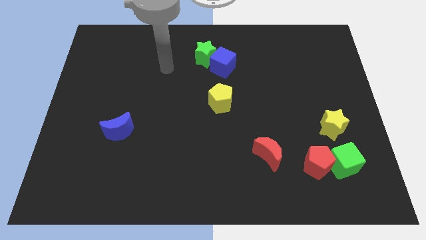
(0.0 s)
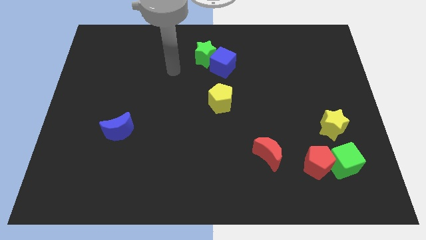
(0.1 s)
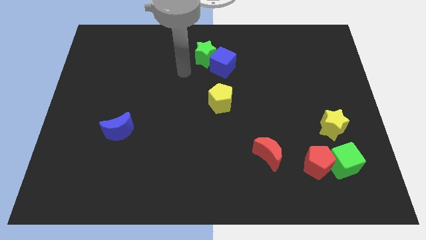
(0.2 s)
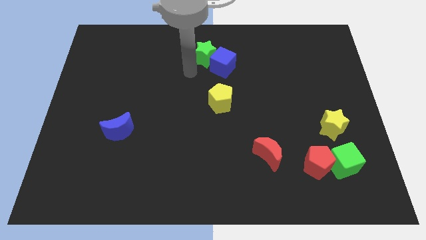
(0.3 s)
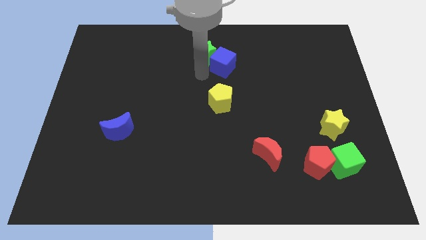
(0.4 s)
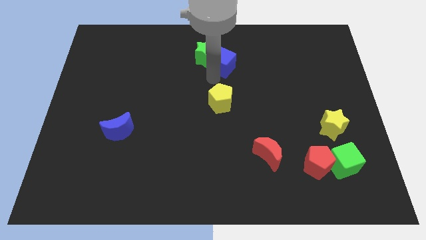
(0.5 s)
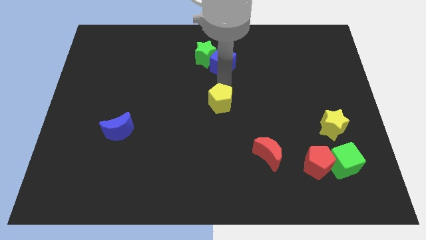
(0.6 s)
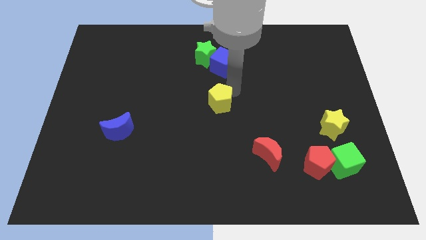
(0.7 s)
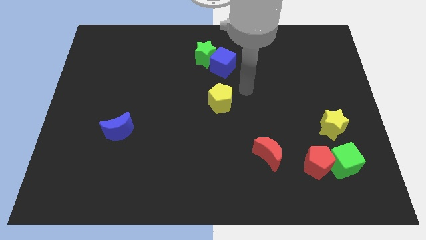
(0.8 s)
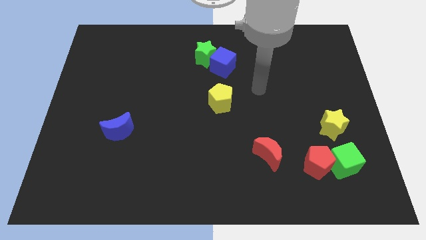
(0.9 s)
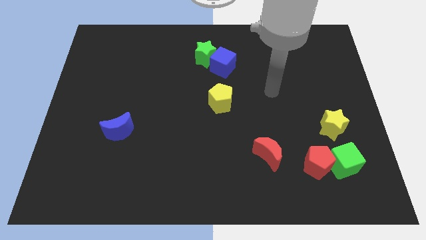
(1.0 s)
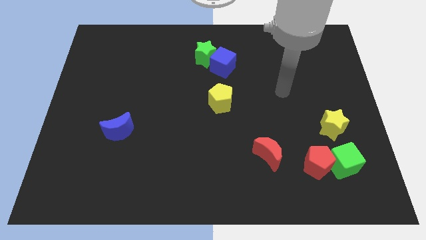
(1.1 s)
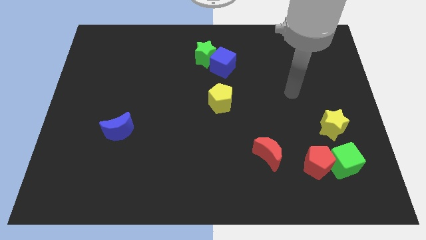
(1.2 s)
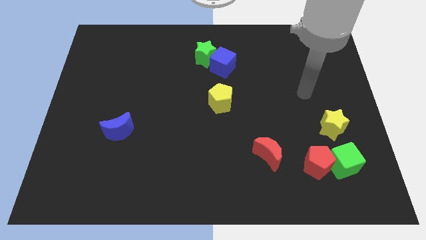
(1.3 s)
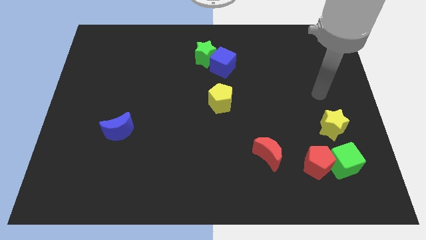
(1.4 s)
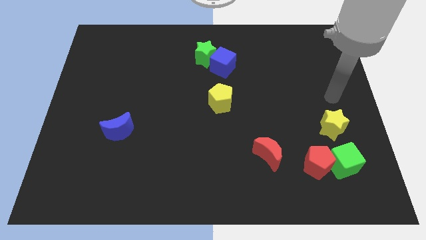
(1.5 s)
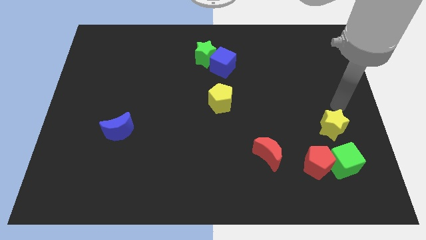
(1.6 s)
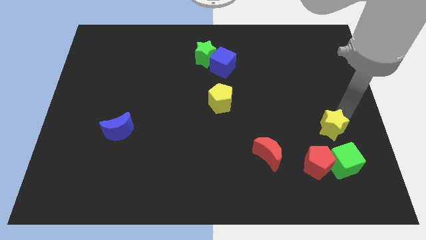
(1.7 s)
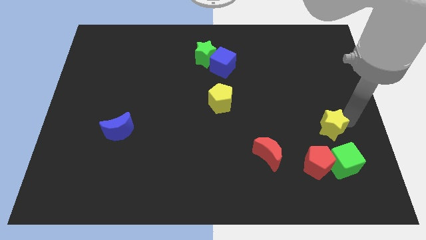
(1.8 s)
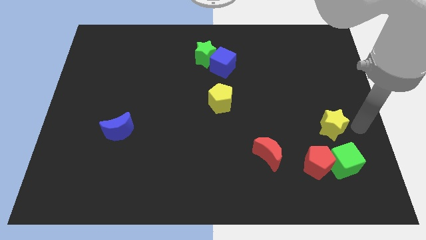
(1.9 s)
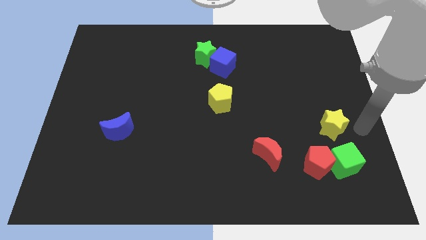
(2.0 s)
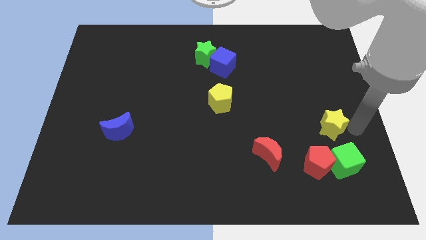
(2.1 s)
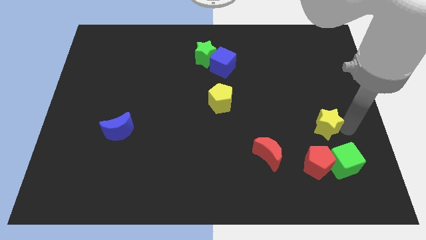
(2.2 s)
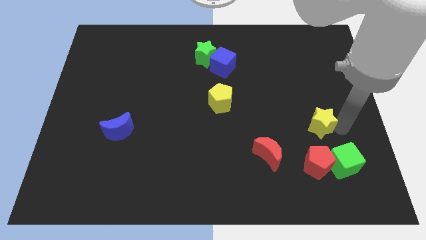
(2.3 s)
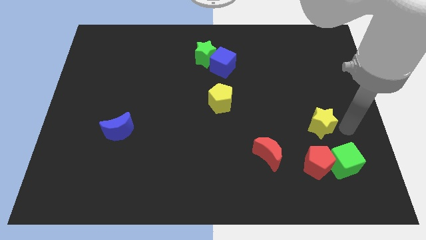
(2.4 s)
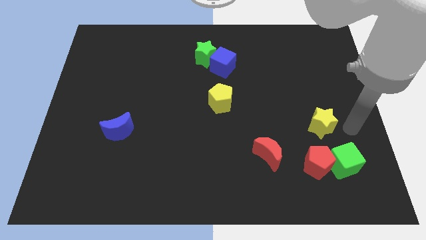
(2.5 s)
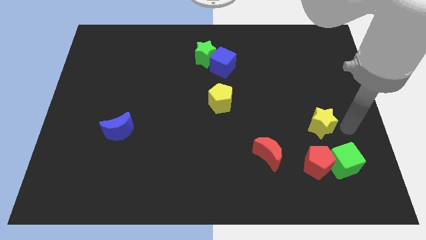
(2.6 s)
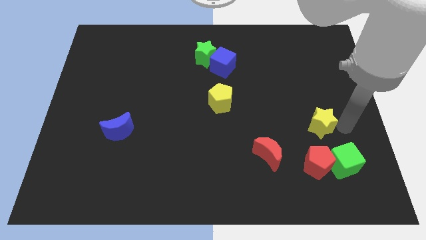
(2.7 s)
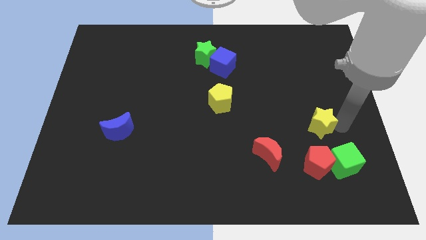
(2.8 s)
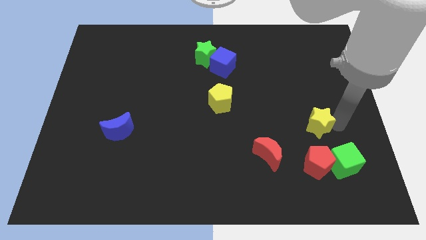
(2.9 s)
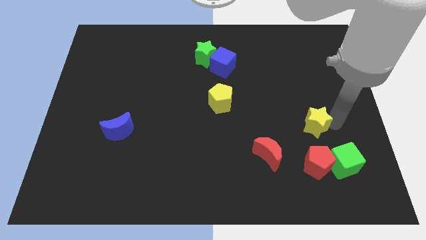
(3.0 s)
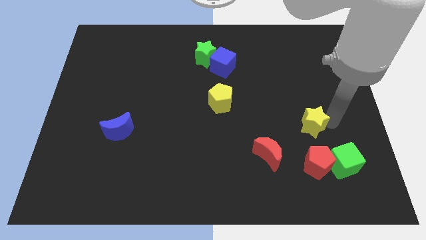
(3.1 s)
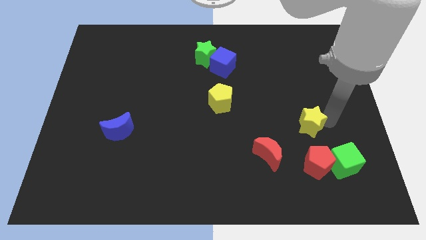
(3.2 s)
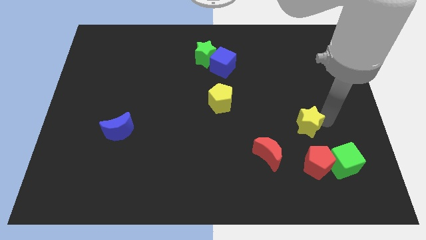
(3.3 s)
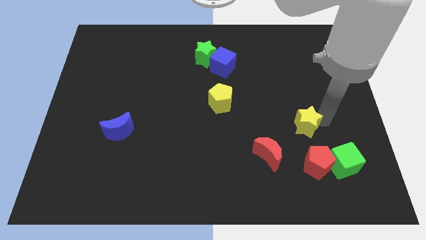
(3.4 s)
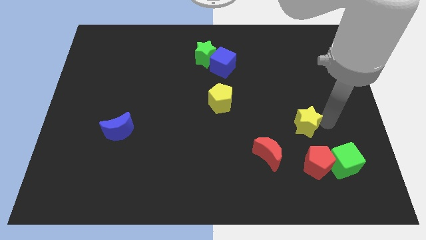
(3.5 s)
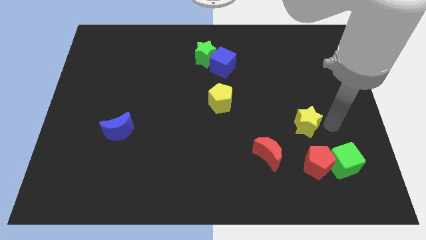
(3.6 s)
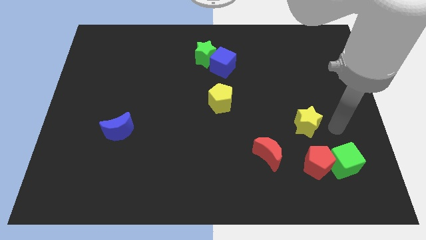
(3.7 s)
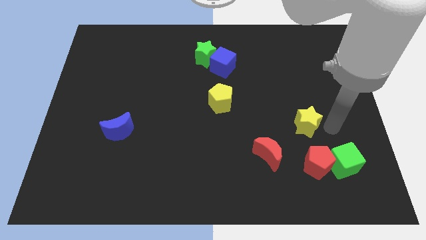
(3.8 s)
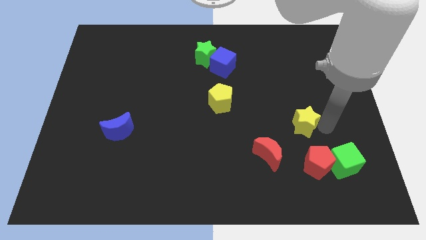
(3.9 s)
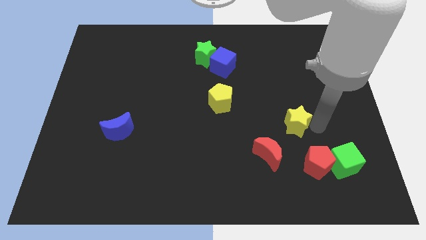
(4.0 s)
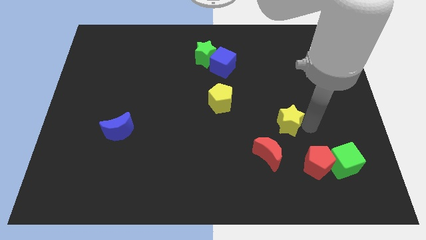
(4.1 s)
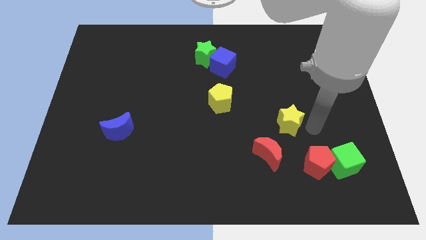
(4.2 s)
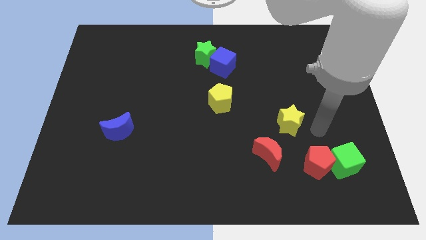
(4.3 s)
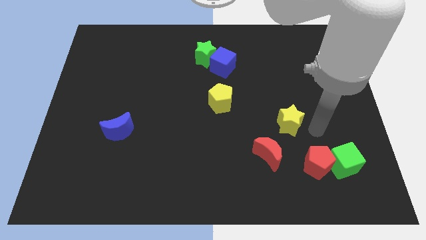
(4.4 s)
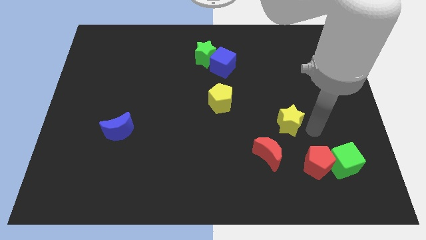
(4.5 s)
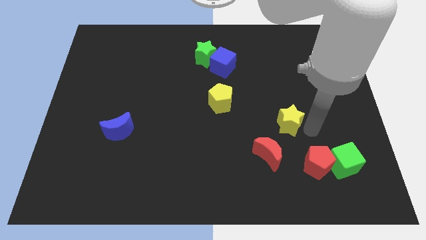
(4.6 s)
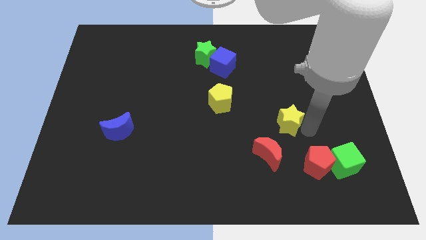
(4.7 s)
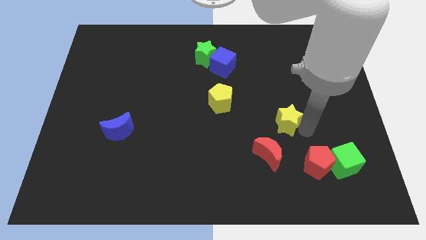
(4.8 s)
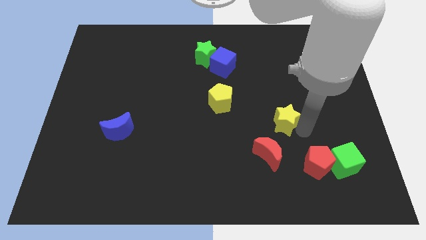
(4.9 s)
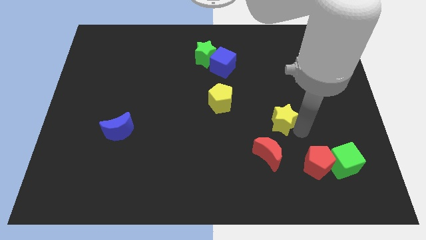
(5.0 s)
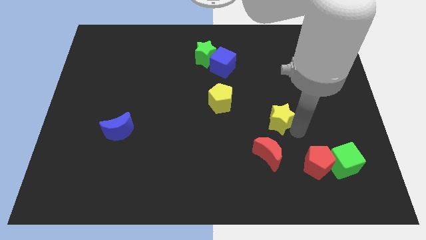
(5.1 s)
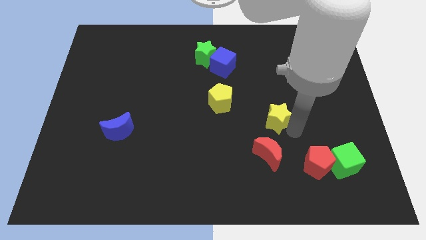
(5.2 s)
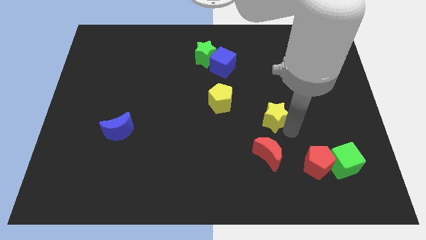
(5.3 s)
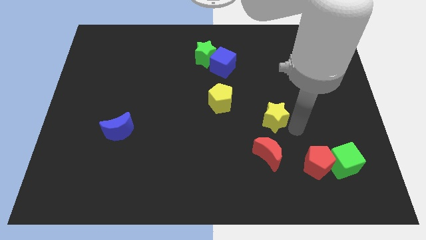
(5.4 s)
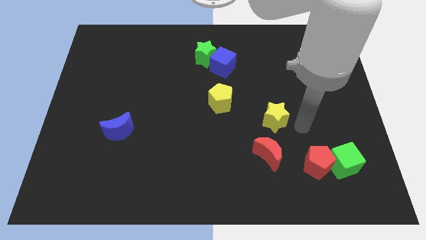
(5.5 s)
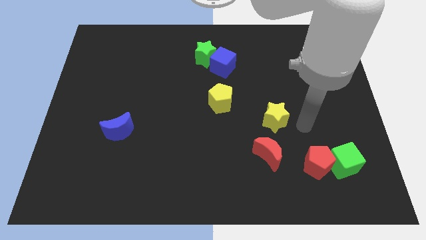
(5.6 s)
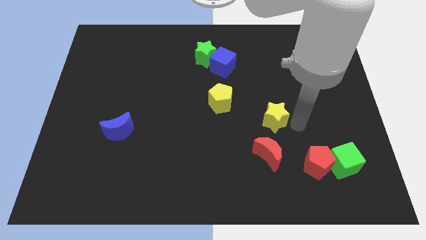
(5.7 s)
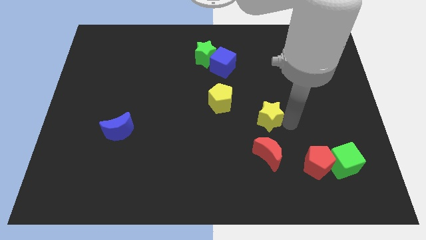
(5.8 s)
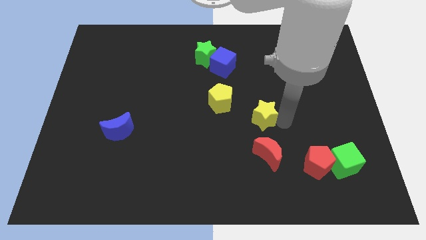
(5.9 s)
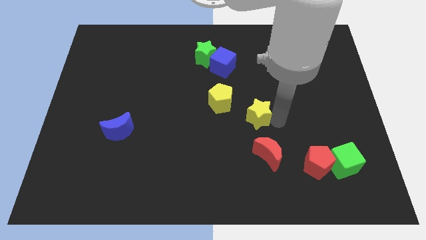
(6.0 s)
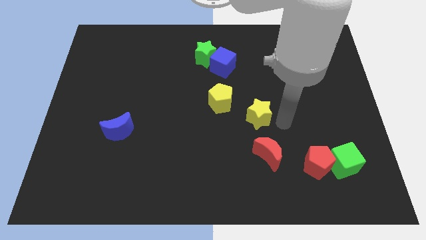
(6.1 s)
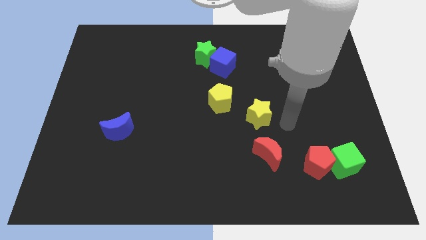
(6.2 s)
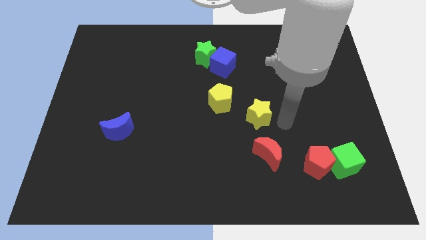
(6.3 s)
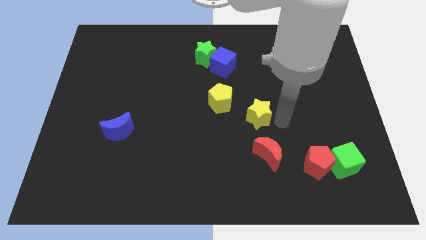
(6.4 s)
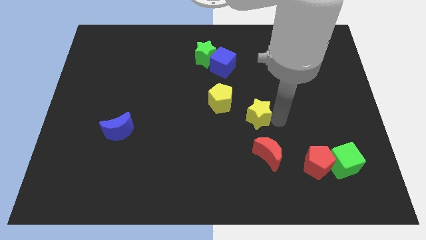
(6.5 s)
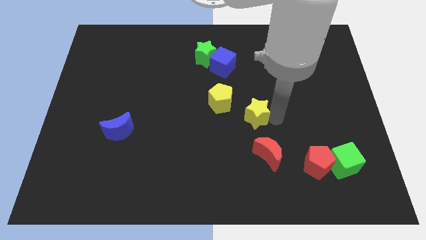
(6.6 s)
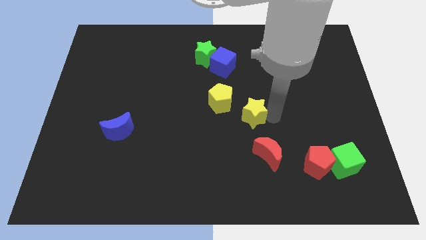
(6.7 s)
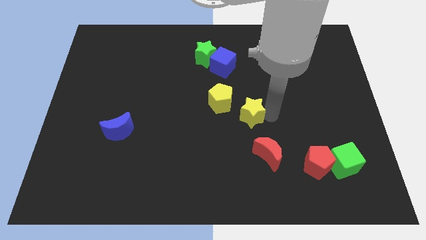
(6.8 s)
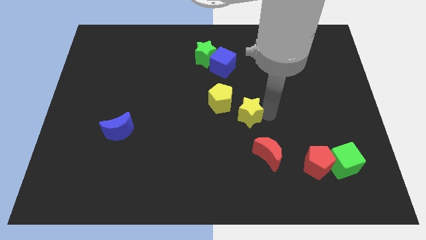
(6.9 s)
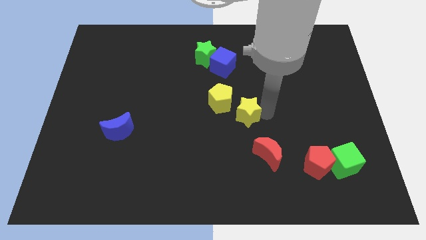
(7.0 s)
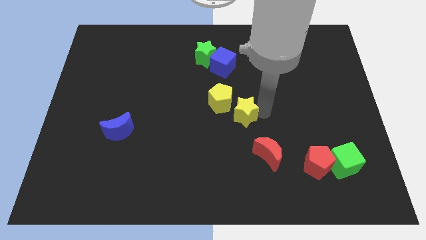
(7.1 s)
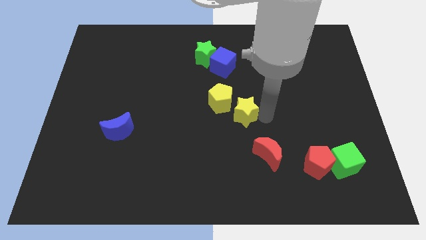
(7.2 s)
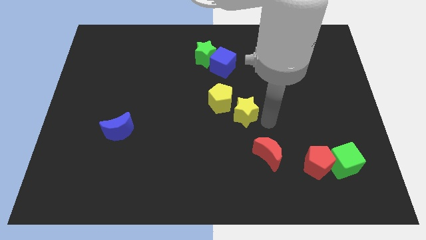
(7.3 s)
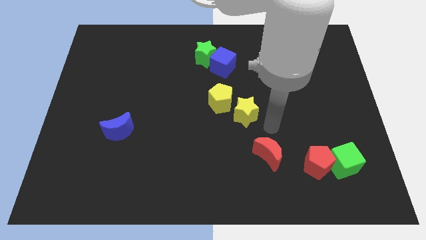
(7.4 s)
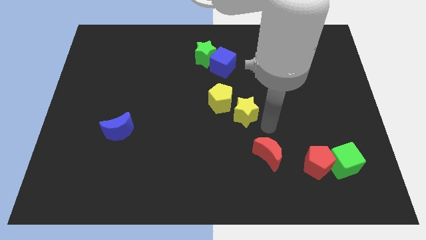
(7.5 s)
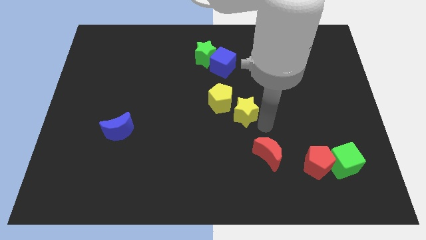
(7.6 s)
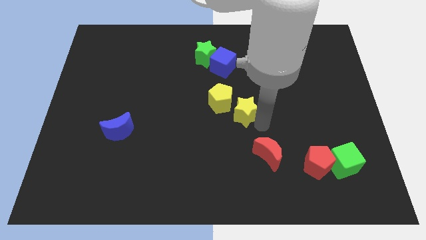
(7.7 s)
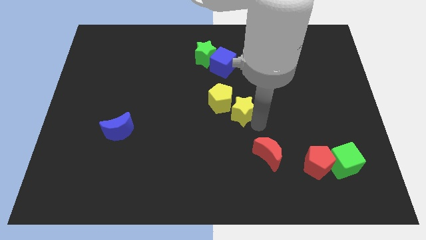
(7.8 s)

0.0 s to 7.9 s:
push the yellow star close to the yellow pentagon
